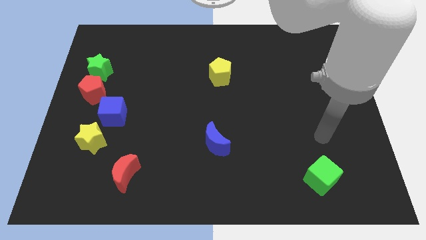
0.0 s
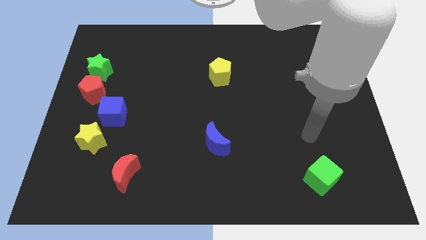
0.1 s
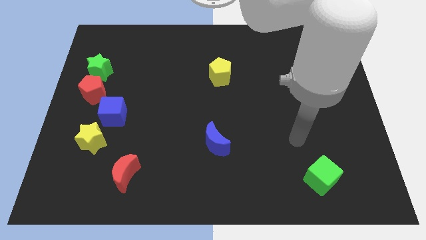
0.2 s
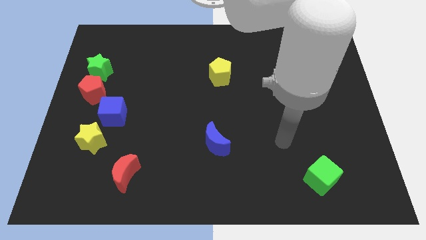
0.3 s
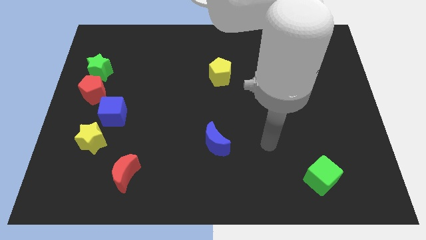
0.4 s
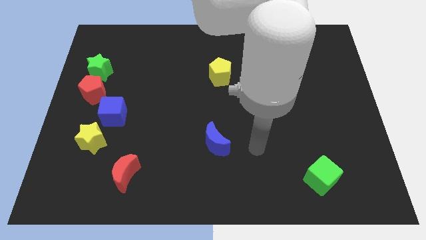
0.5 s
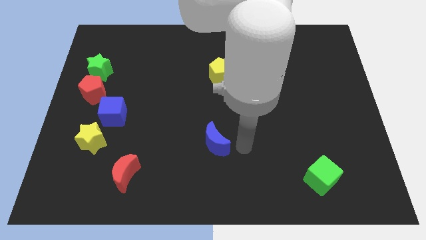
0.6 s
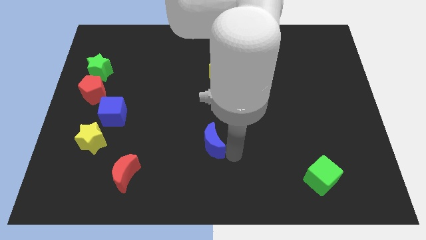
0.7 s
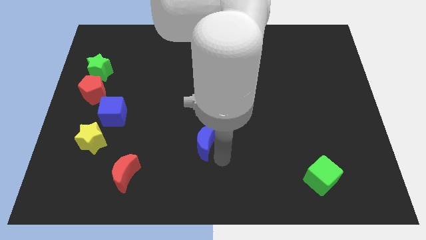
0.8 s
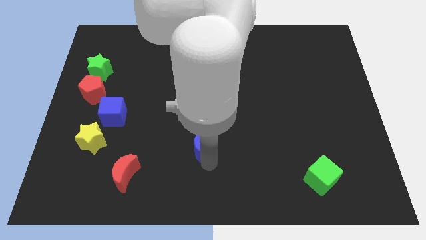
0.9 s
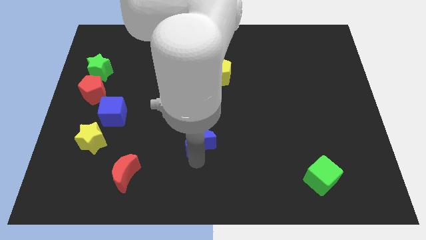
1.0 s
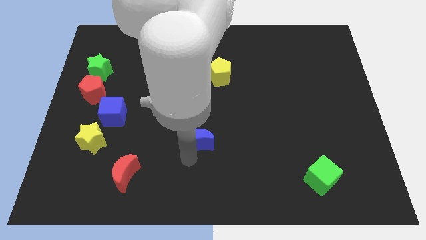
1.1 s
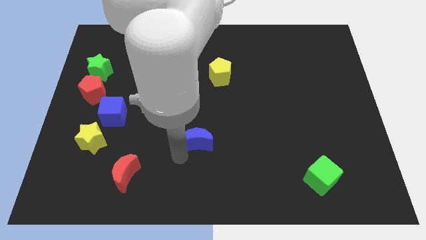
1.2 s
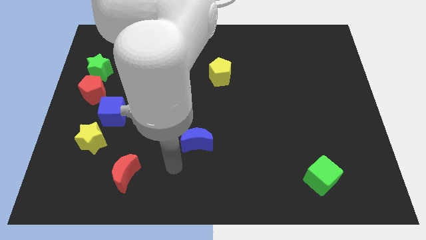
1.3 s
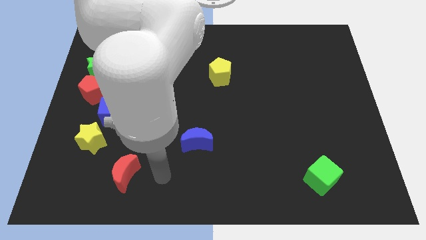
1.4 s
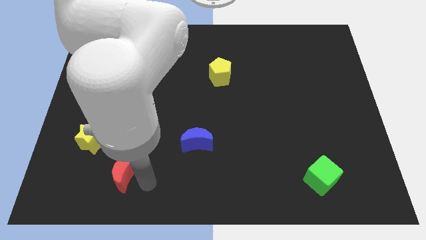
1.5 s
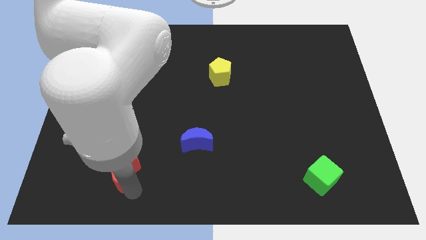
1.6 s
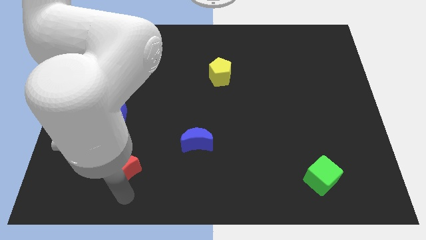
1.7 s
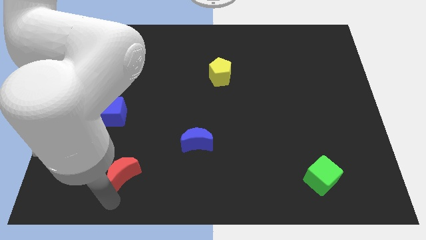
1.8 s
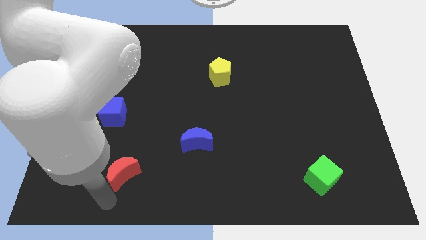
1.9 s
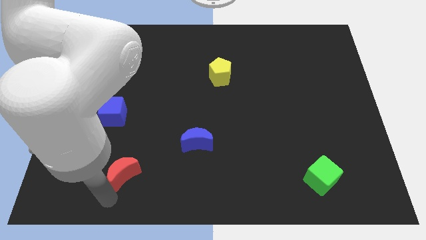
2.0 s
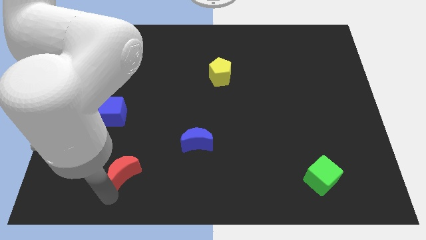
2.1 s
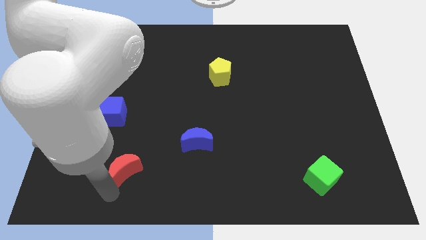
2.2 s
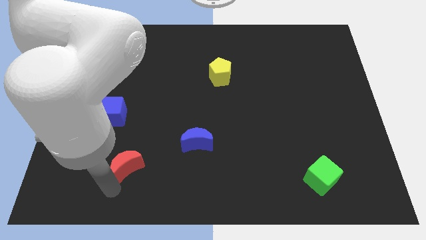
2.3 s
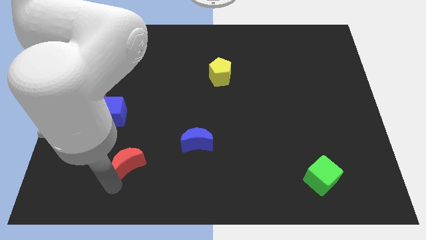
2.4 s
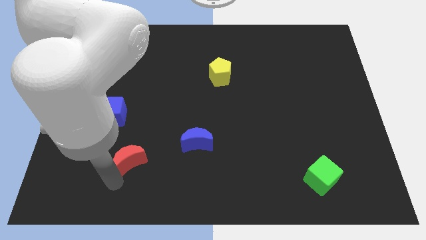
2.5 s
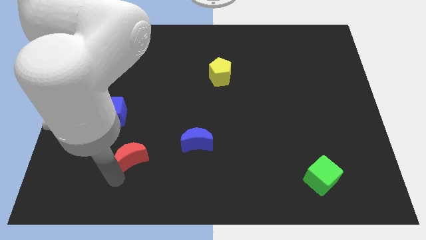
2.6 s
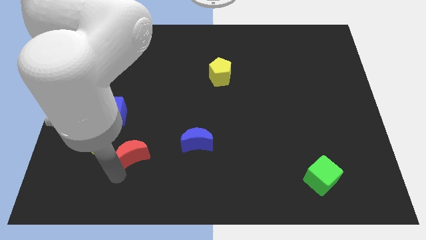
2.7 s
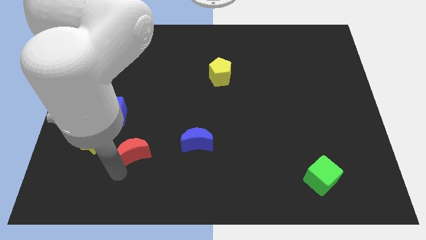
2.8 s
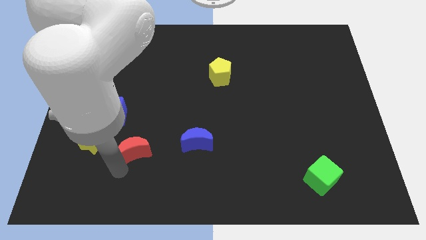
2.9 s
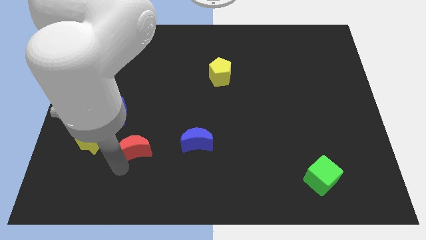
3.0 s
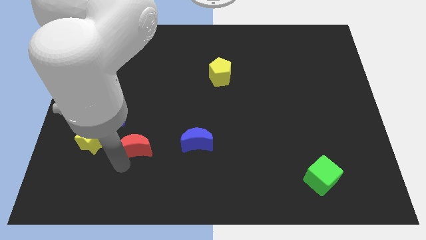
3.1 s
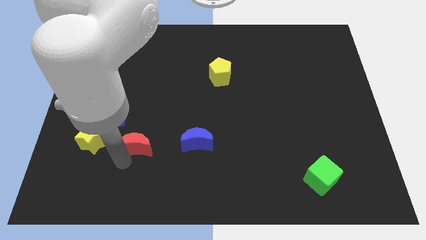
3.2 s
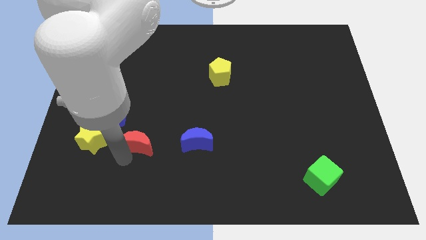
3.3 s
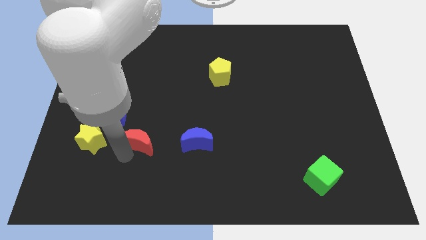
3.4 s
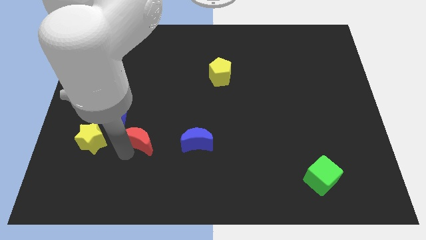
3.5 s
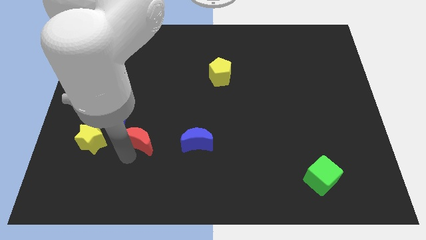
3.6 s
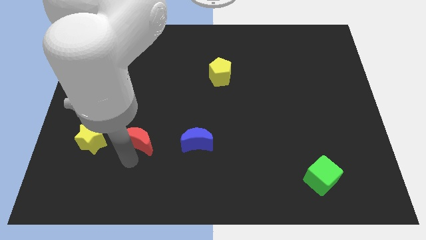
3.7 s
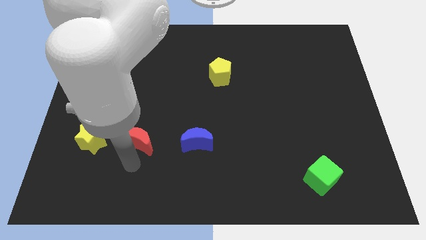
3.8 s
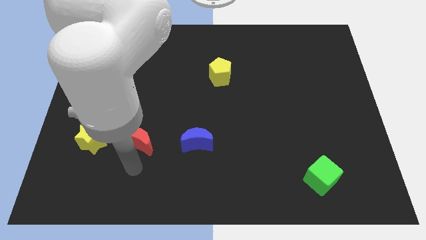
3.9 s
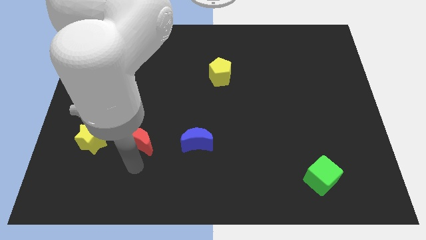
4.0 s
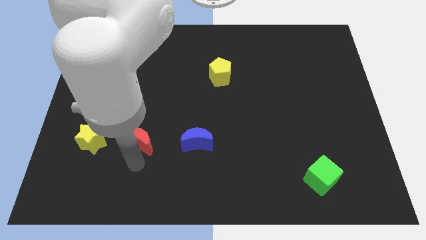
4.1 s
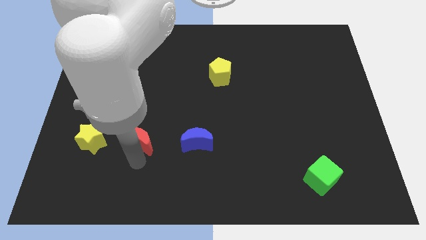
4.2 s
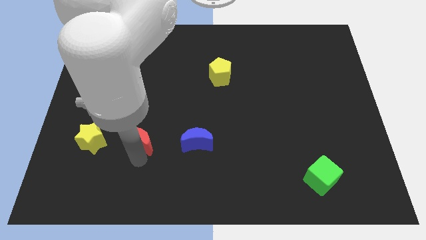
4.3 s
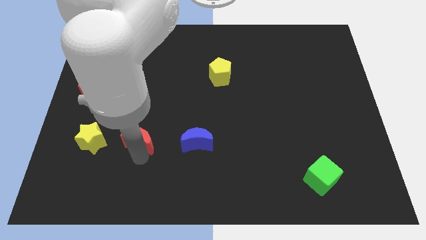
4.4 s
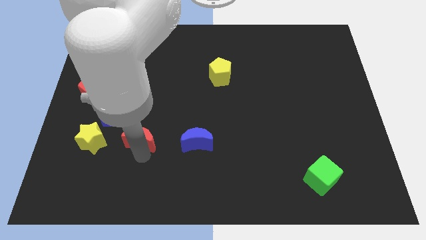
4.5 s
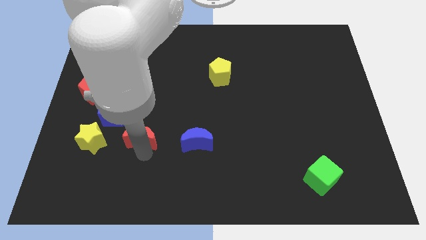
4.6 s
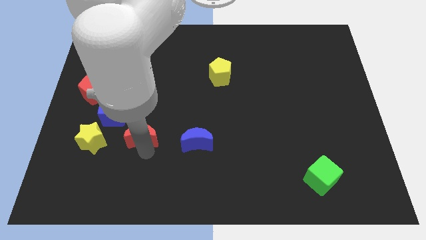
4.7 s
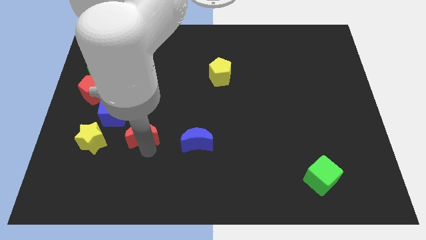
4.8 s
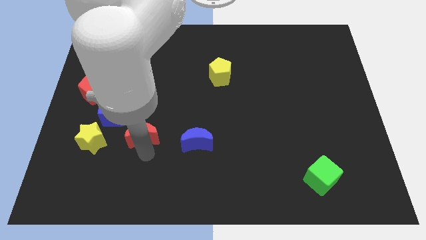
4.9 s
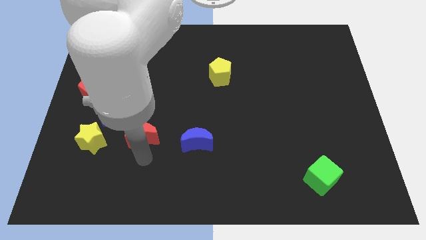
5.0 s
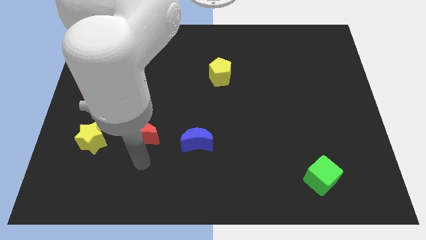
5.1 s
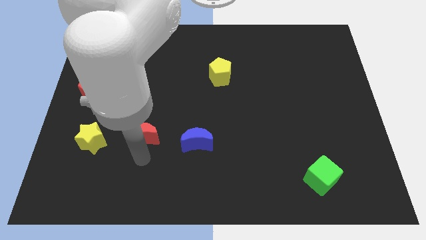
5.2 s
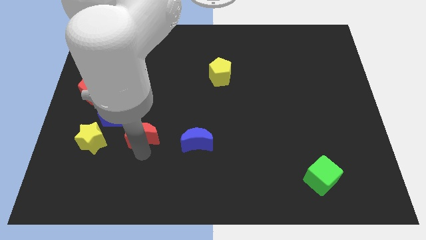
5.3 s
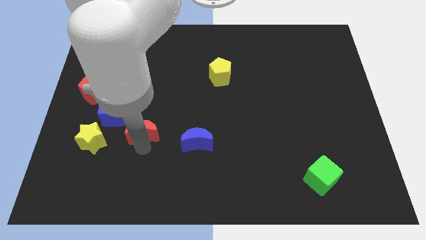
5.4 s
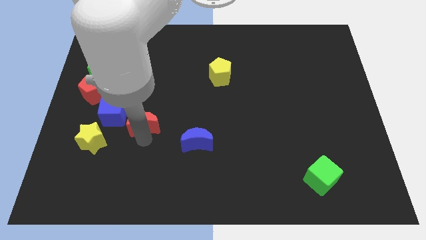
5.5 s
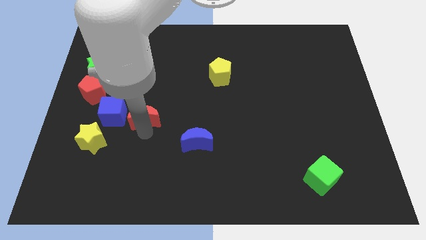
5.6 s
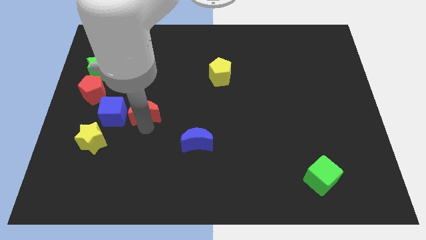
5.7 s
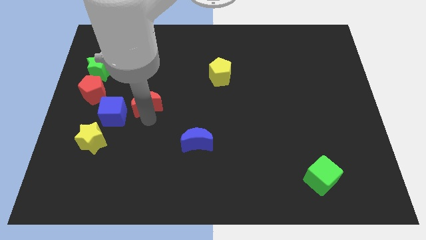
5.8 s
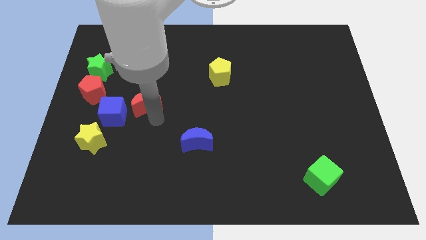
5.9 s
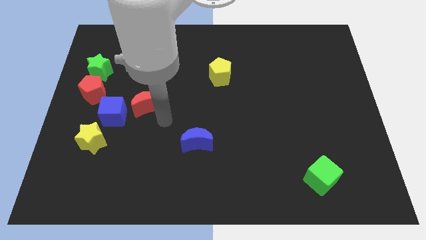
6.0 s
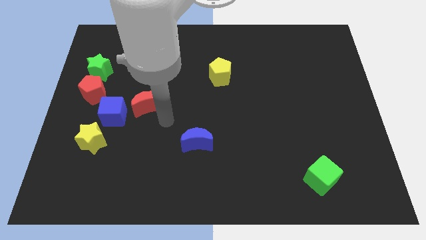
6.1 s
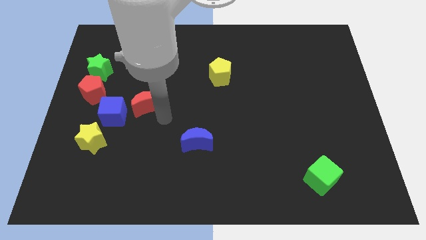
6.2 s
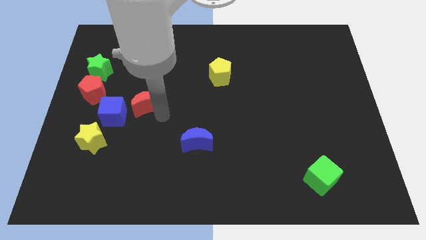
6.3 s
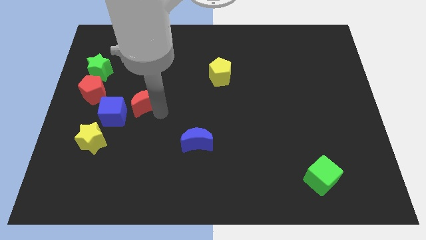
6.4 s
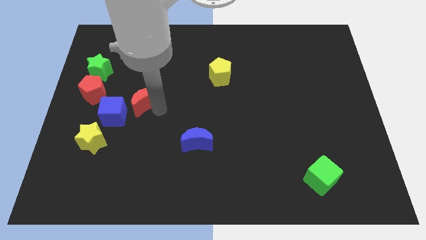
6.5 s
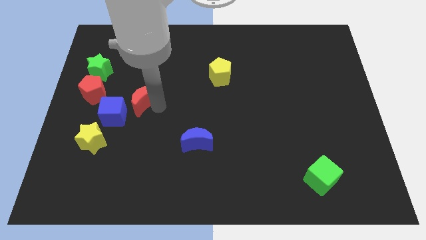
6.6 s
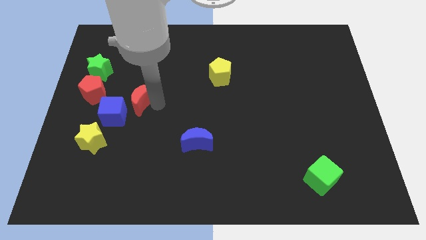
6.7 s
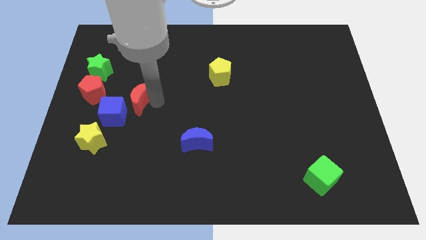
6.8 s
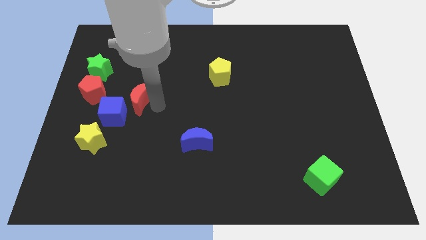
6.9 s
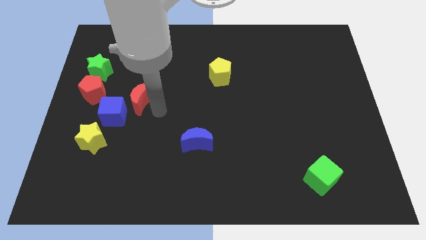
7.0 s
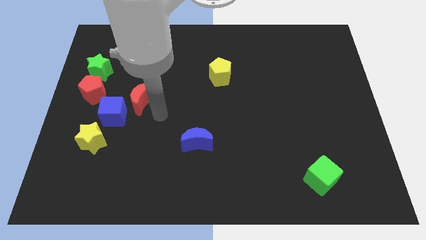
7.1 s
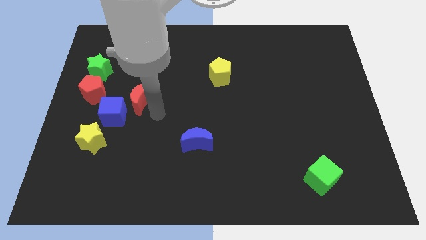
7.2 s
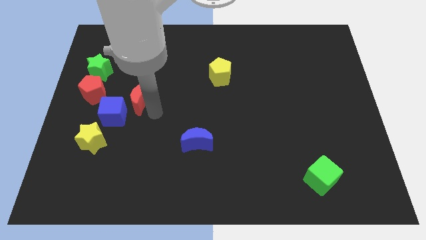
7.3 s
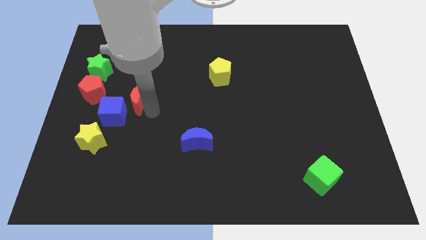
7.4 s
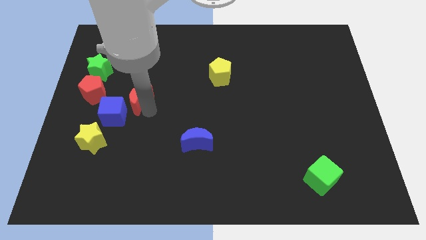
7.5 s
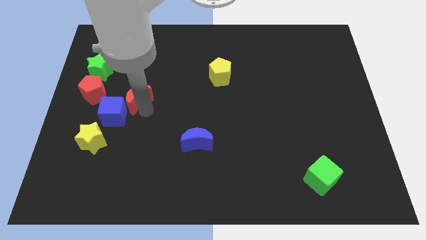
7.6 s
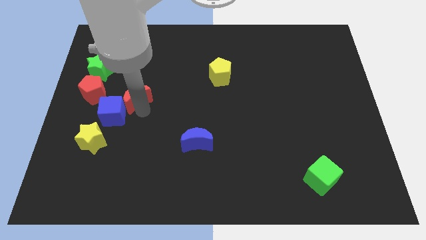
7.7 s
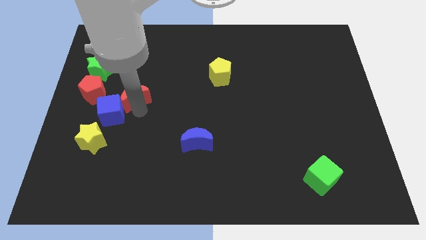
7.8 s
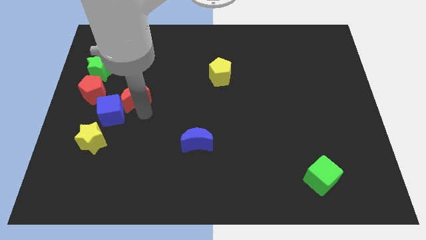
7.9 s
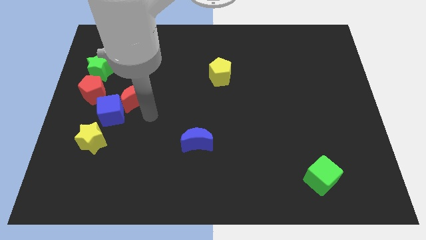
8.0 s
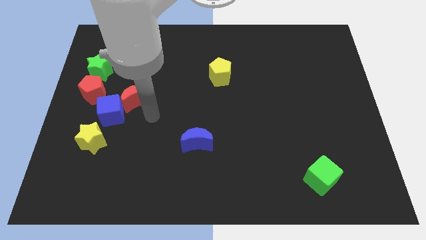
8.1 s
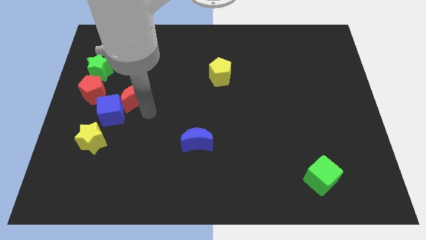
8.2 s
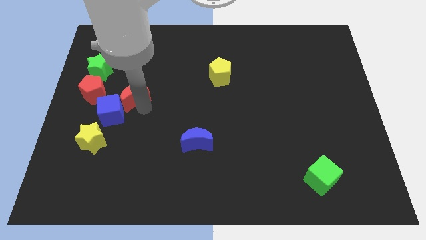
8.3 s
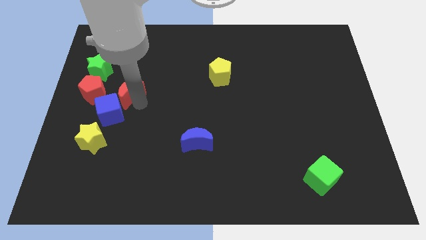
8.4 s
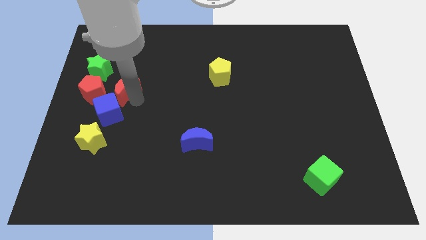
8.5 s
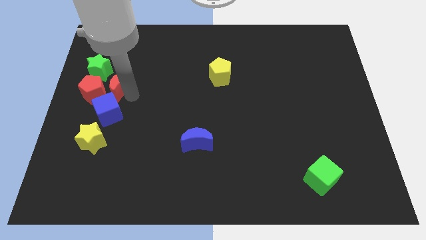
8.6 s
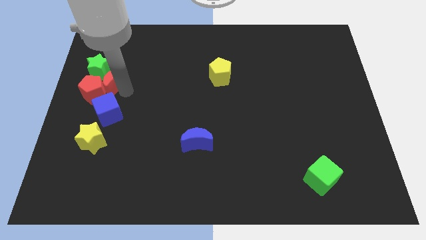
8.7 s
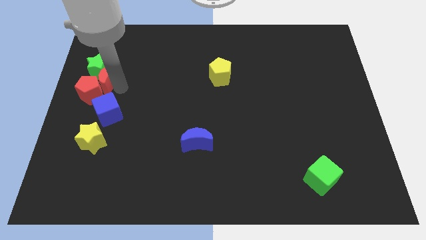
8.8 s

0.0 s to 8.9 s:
push the red moon towards the green star
